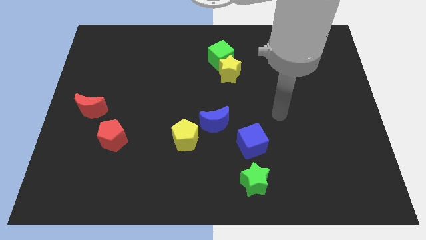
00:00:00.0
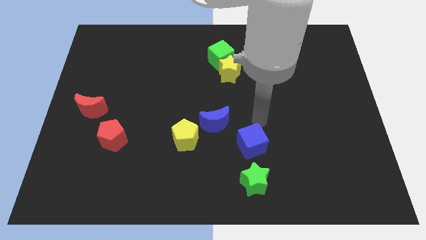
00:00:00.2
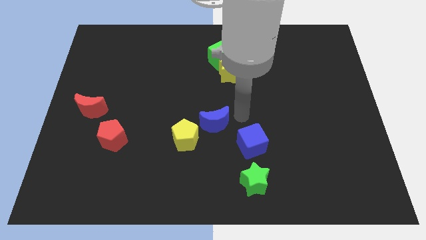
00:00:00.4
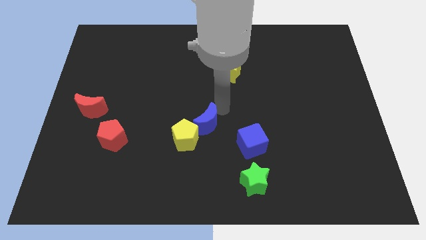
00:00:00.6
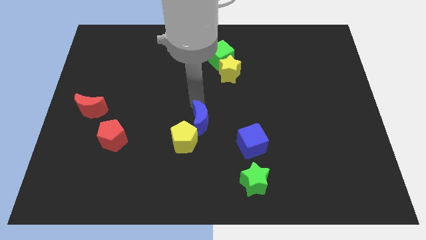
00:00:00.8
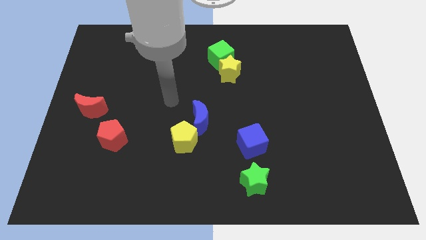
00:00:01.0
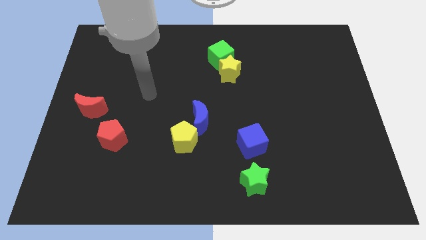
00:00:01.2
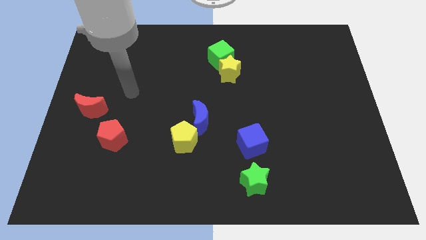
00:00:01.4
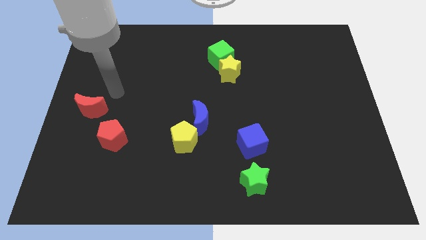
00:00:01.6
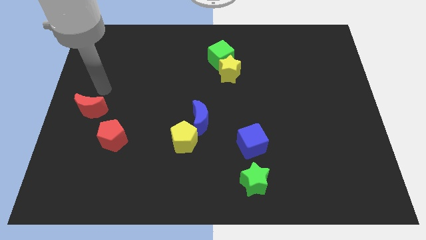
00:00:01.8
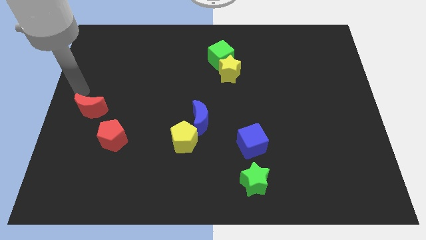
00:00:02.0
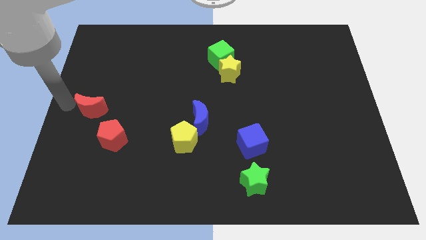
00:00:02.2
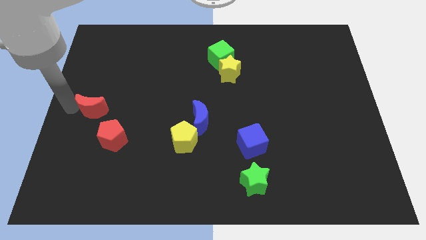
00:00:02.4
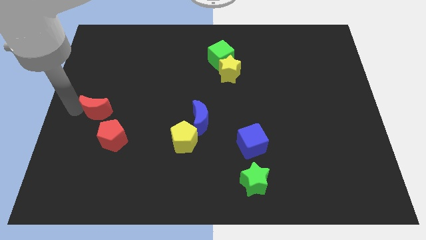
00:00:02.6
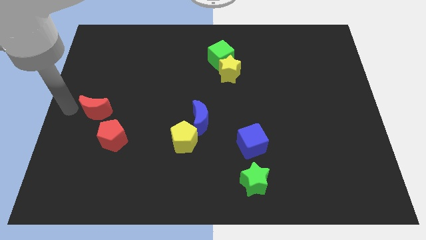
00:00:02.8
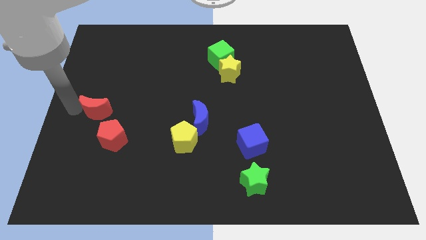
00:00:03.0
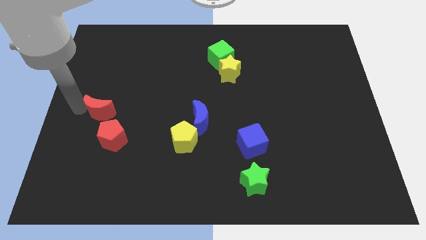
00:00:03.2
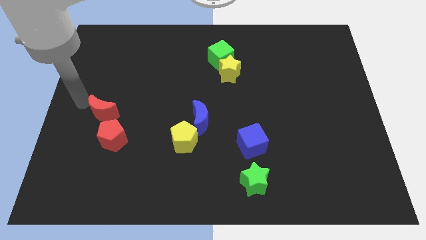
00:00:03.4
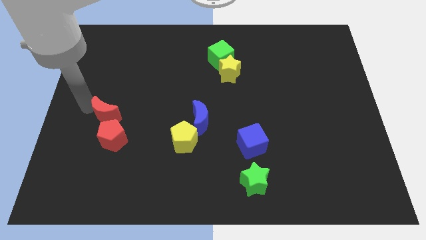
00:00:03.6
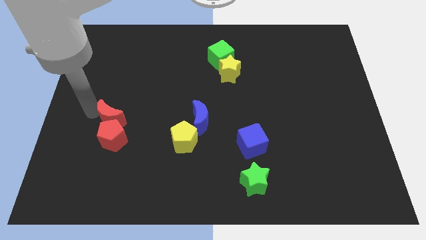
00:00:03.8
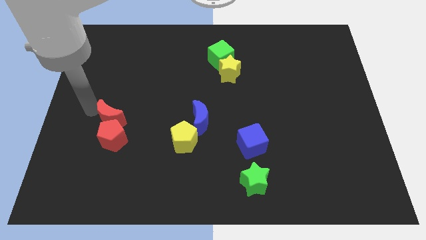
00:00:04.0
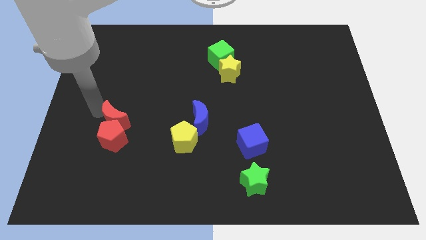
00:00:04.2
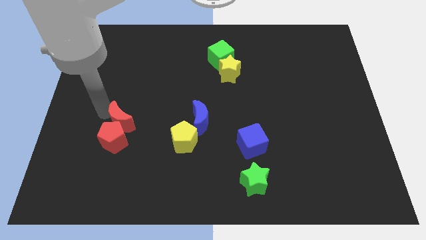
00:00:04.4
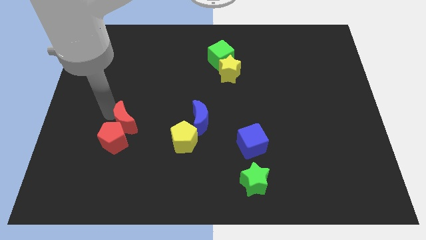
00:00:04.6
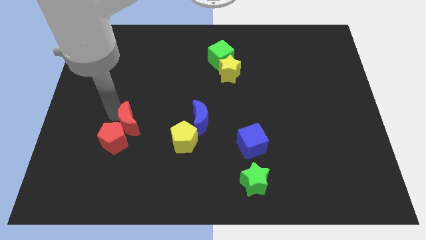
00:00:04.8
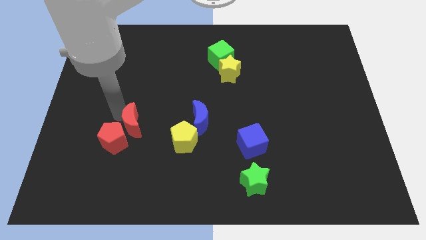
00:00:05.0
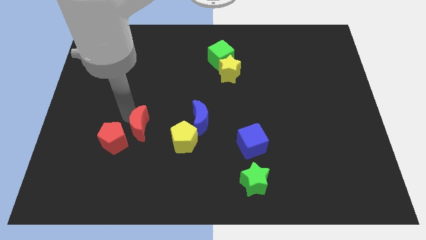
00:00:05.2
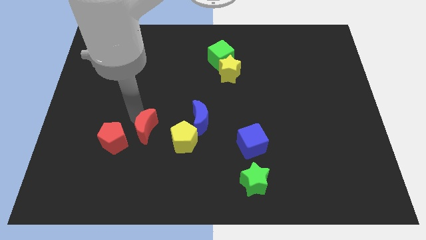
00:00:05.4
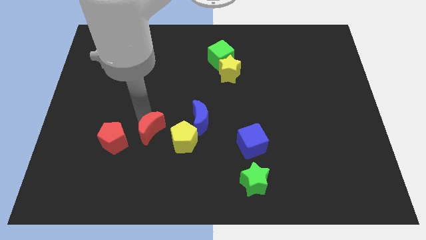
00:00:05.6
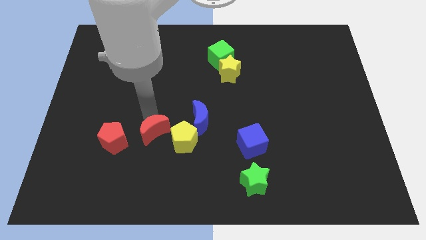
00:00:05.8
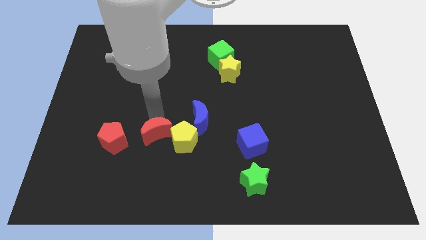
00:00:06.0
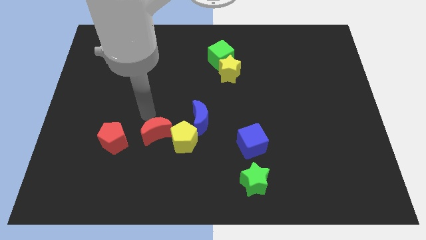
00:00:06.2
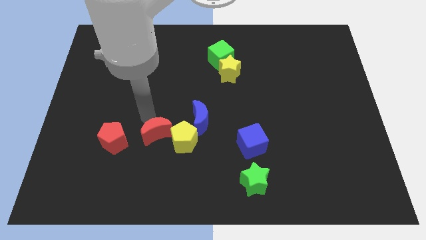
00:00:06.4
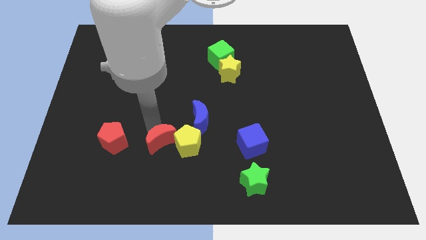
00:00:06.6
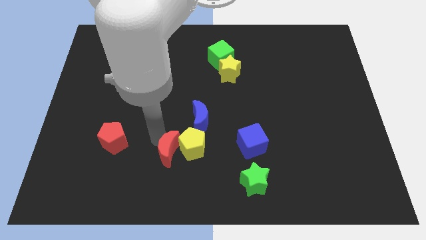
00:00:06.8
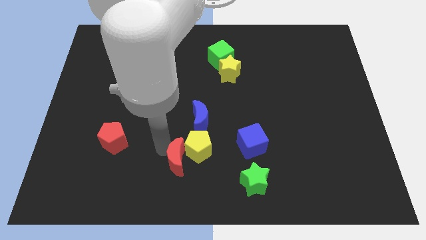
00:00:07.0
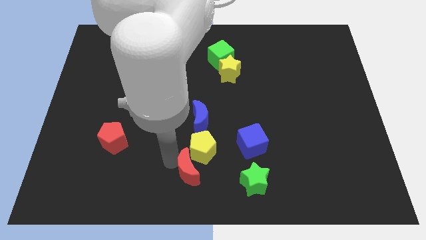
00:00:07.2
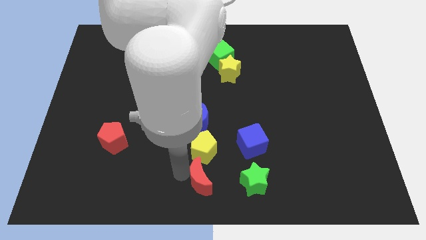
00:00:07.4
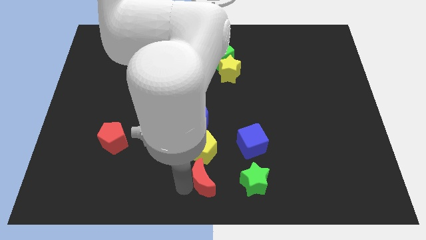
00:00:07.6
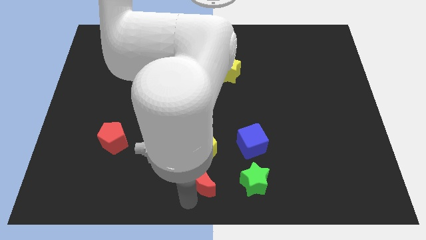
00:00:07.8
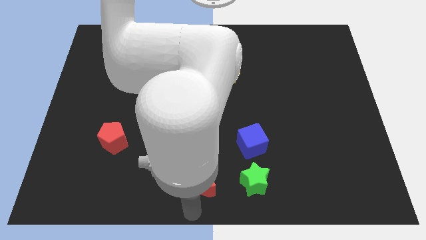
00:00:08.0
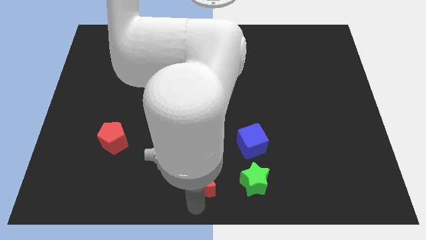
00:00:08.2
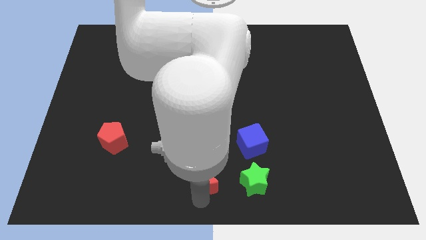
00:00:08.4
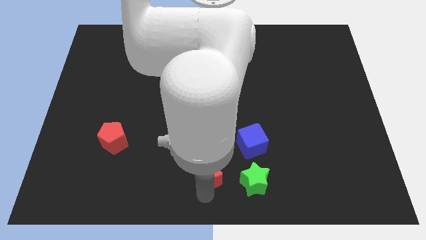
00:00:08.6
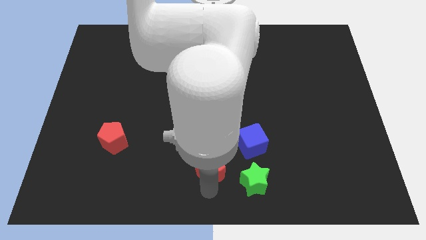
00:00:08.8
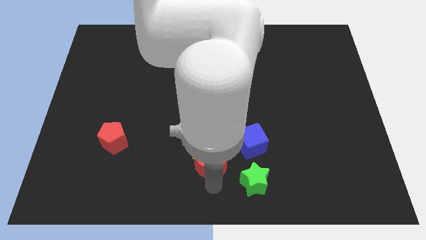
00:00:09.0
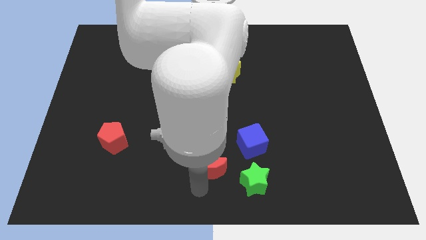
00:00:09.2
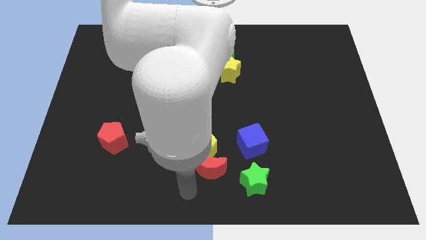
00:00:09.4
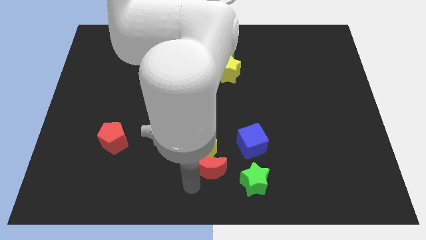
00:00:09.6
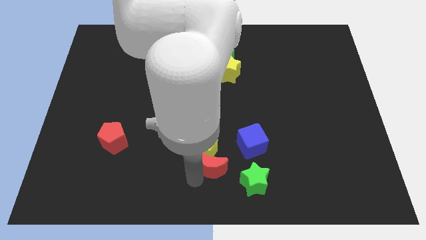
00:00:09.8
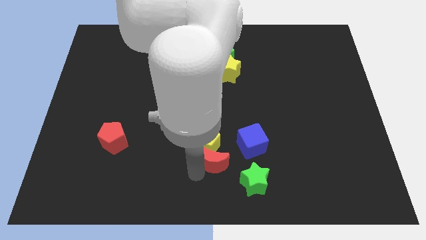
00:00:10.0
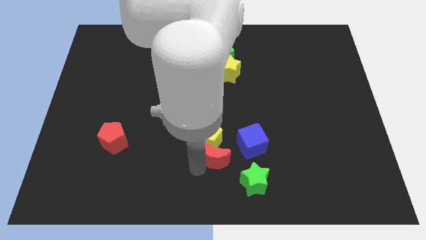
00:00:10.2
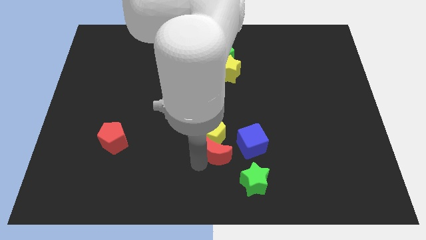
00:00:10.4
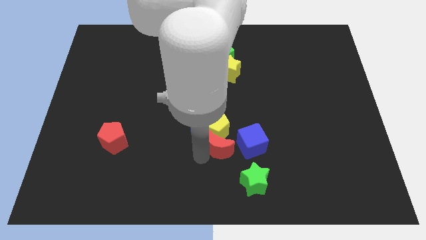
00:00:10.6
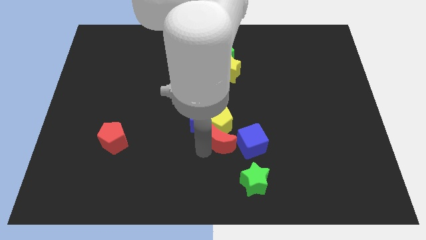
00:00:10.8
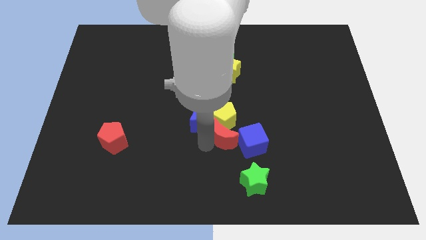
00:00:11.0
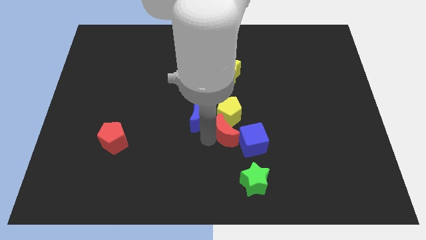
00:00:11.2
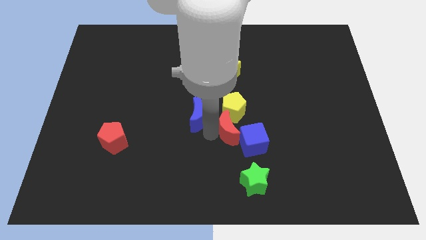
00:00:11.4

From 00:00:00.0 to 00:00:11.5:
push the red moon next to the blue cube

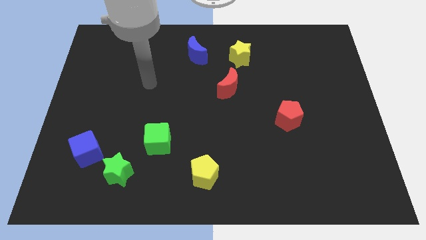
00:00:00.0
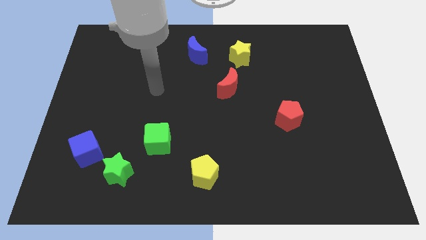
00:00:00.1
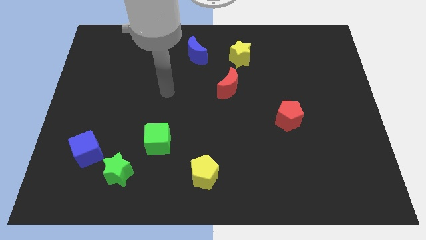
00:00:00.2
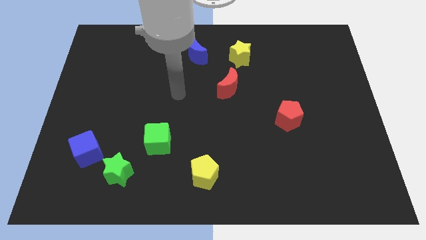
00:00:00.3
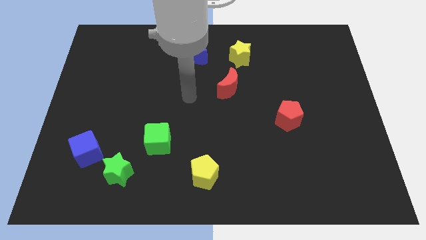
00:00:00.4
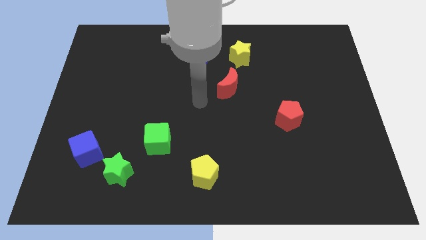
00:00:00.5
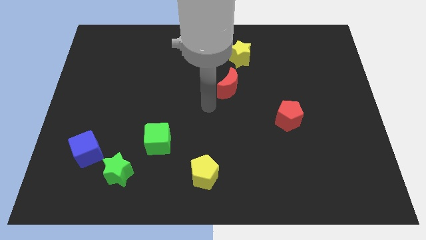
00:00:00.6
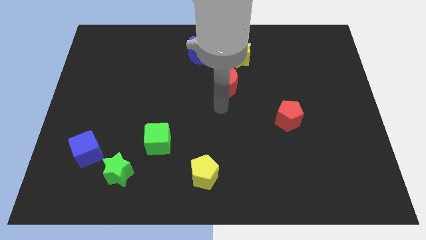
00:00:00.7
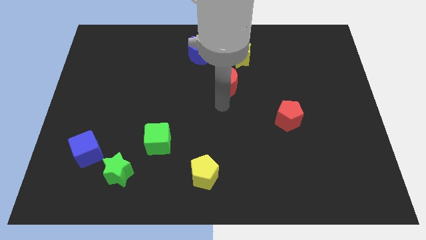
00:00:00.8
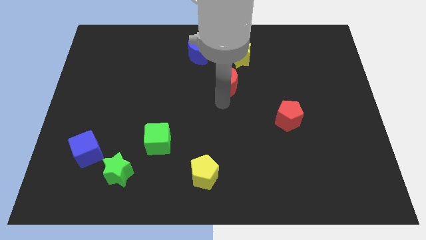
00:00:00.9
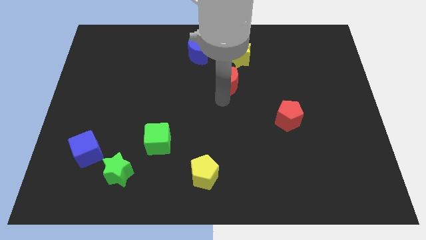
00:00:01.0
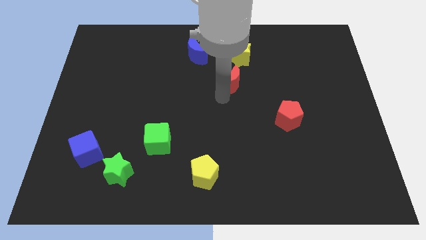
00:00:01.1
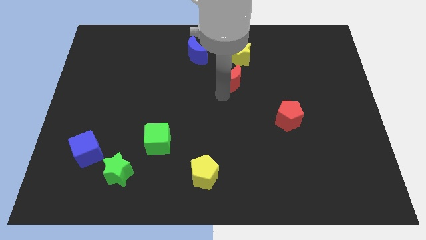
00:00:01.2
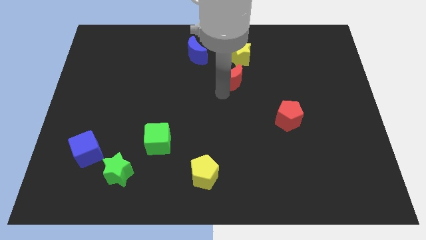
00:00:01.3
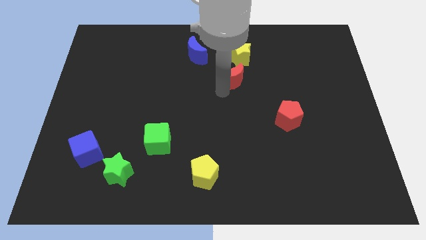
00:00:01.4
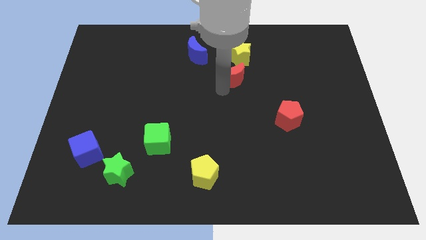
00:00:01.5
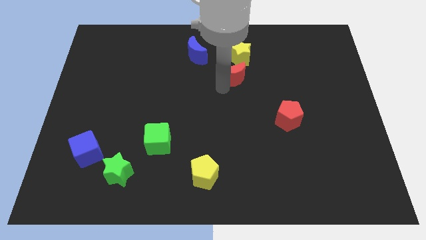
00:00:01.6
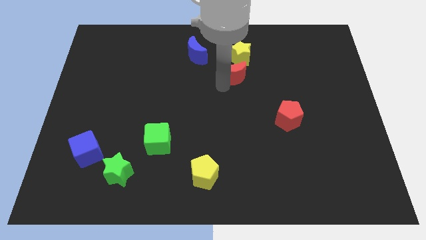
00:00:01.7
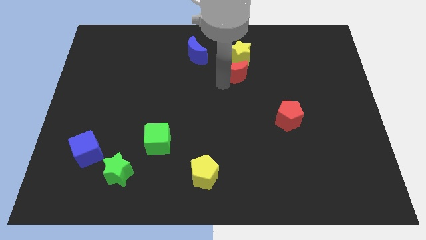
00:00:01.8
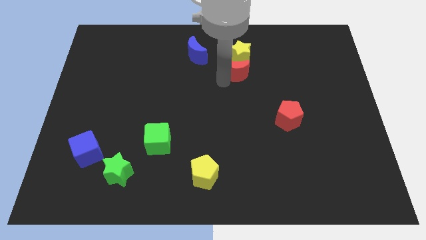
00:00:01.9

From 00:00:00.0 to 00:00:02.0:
put the red moon towards the yellow star
